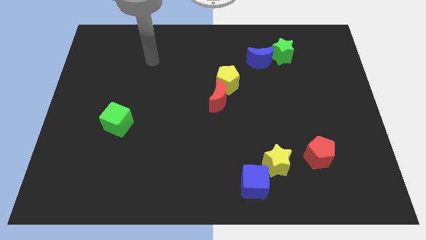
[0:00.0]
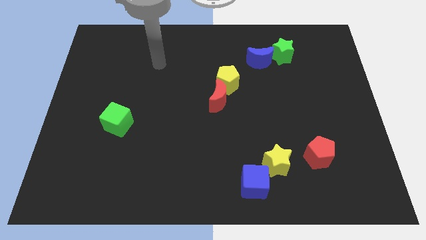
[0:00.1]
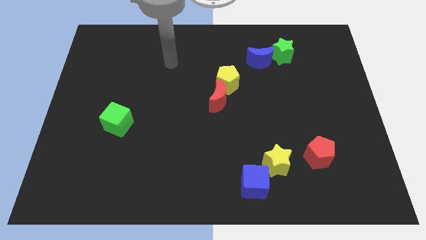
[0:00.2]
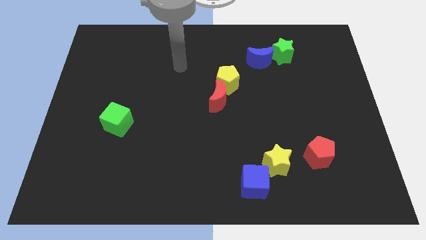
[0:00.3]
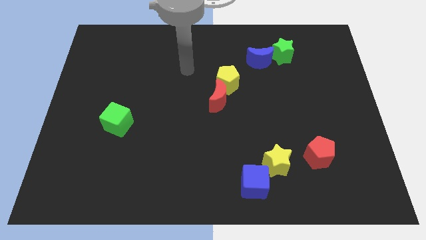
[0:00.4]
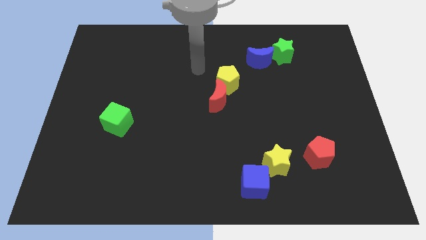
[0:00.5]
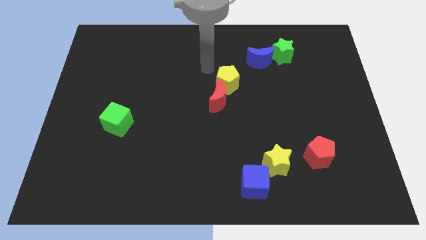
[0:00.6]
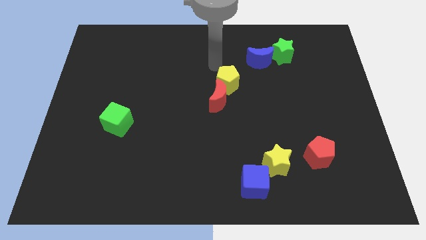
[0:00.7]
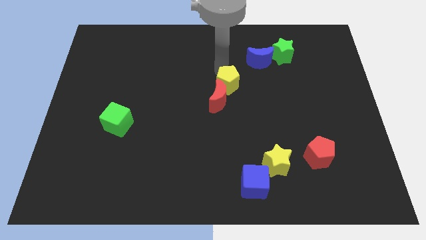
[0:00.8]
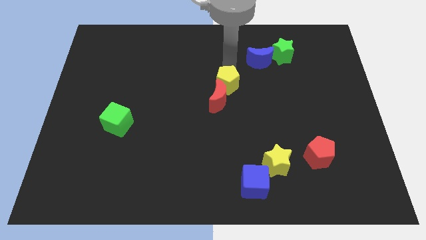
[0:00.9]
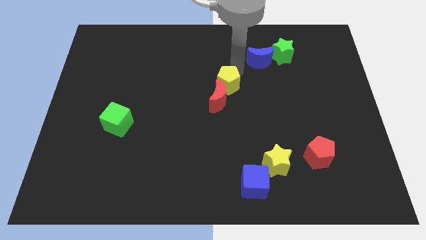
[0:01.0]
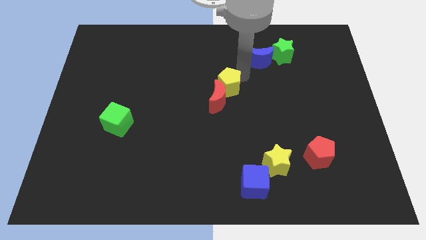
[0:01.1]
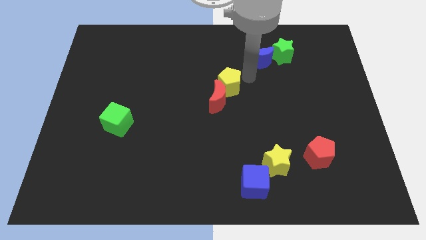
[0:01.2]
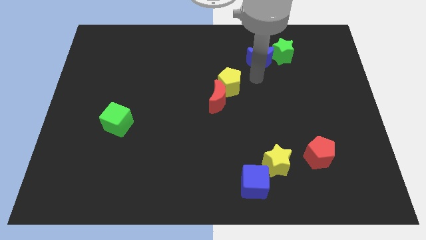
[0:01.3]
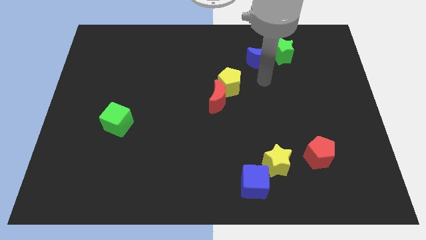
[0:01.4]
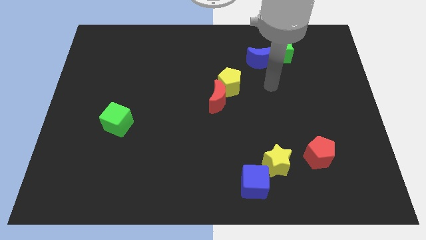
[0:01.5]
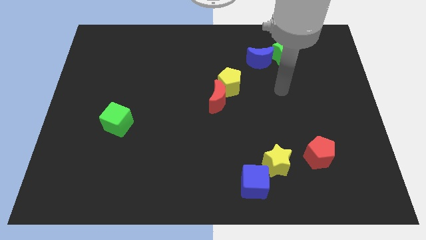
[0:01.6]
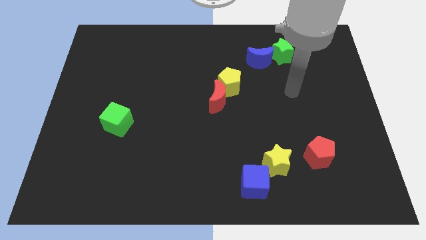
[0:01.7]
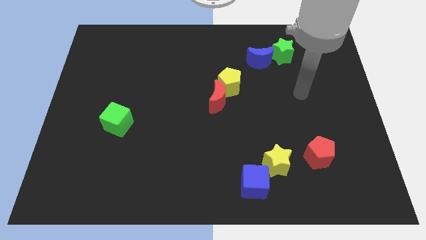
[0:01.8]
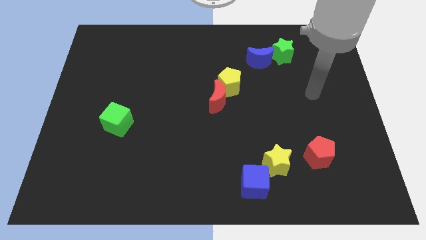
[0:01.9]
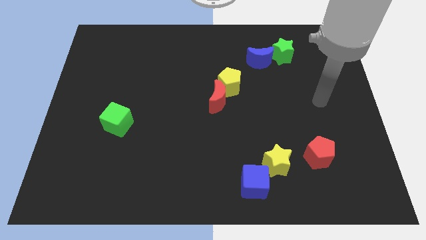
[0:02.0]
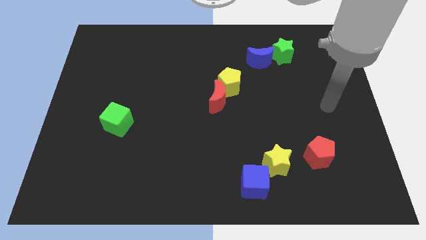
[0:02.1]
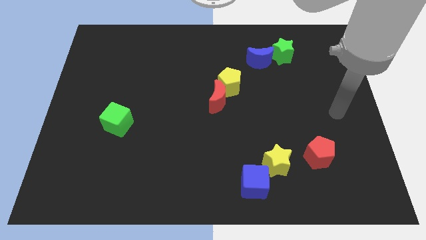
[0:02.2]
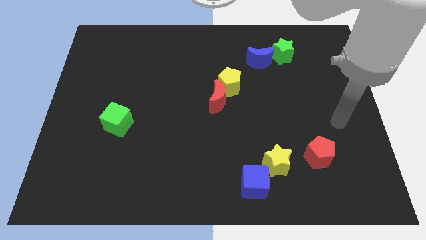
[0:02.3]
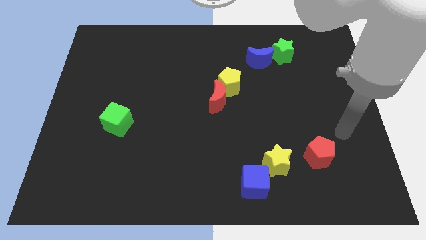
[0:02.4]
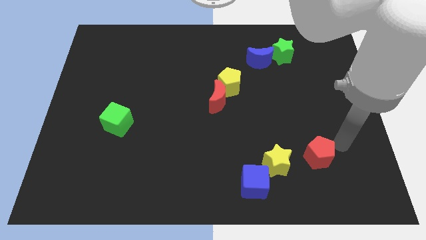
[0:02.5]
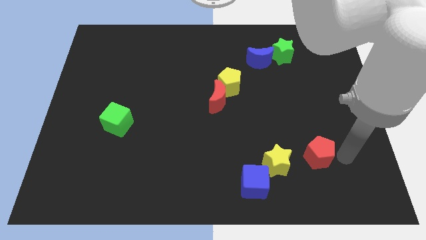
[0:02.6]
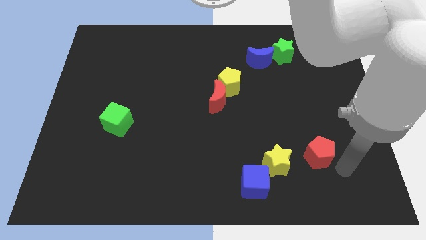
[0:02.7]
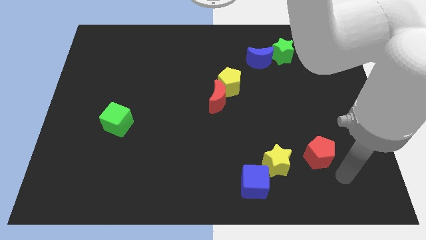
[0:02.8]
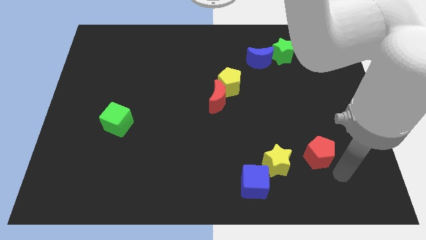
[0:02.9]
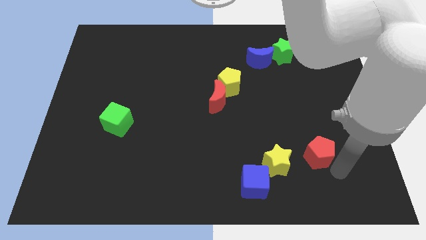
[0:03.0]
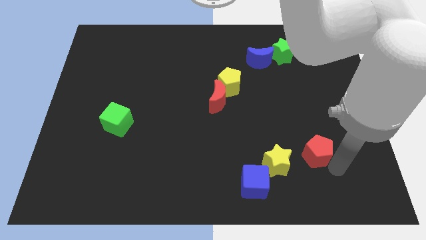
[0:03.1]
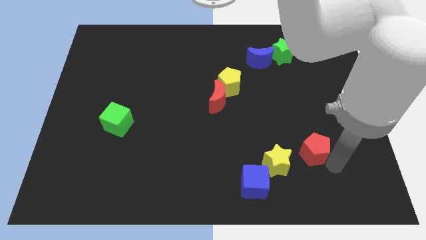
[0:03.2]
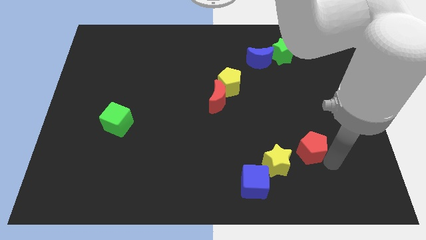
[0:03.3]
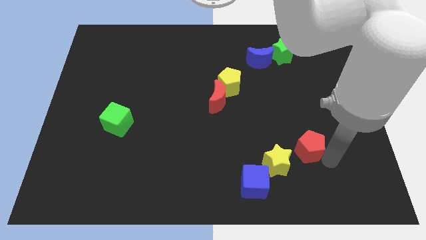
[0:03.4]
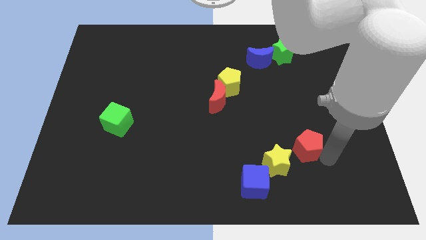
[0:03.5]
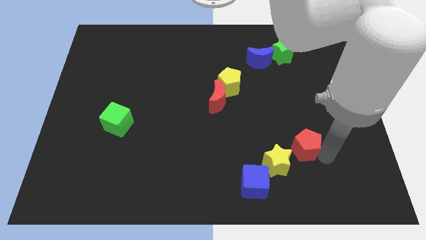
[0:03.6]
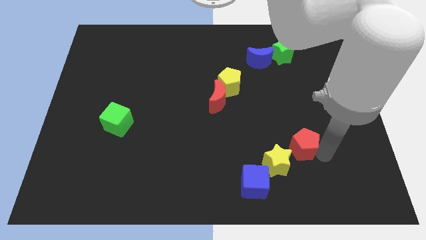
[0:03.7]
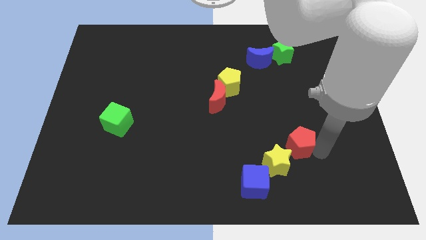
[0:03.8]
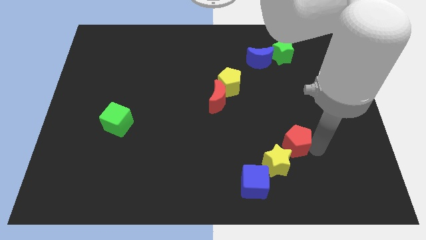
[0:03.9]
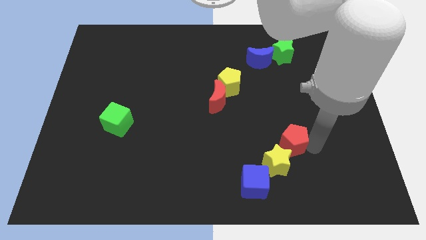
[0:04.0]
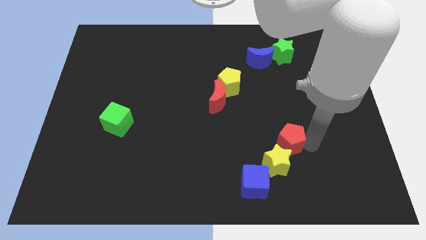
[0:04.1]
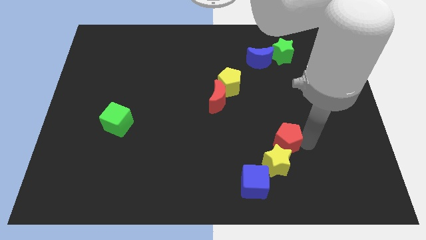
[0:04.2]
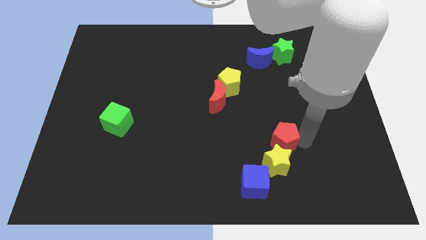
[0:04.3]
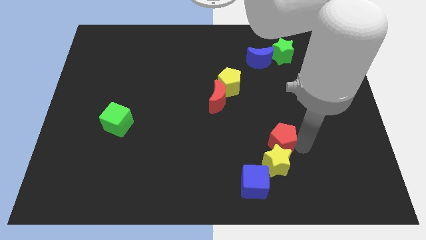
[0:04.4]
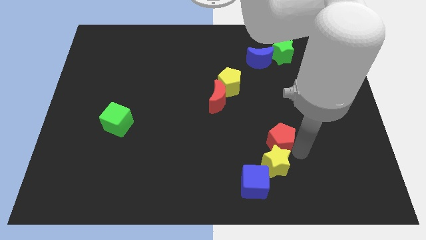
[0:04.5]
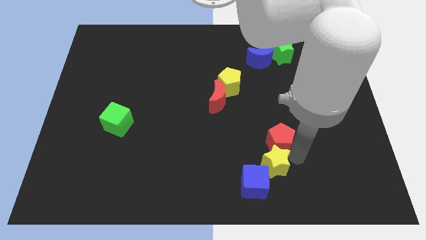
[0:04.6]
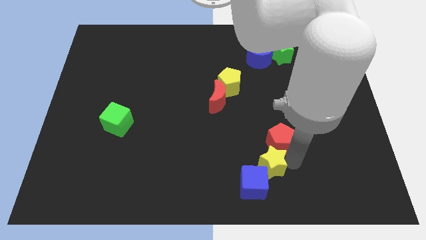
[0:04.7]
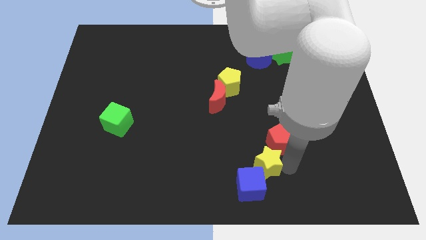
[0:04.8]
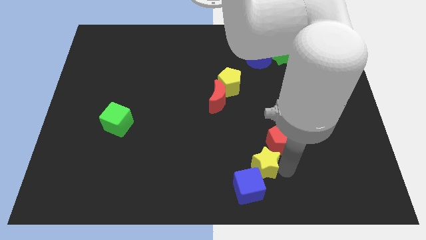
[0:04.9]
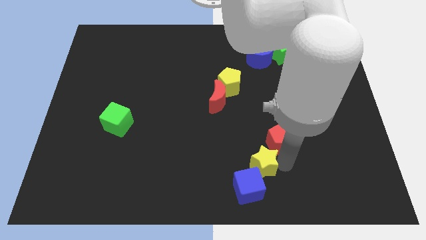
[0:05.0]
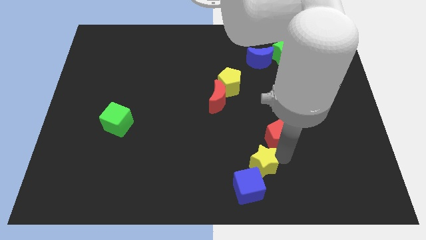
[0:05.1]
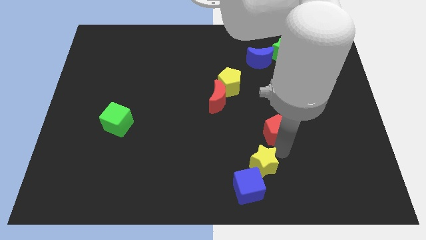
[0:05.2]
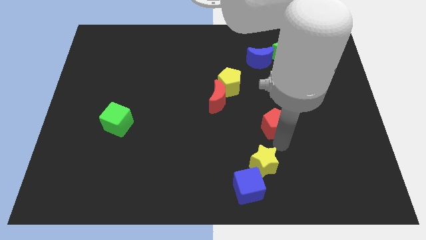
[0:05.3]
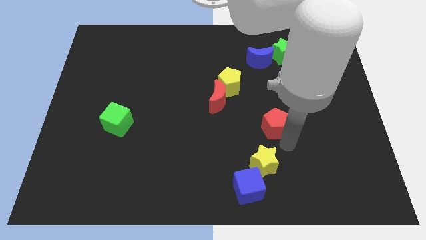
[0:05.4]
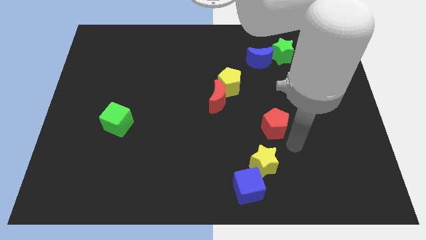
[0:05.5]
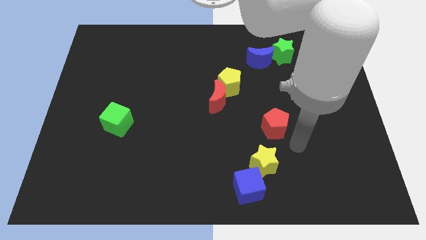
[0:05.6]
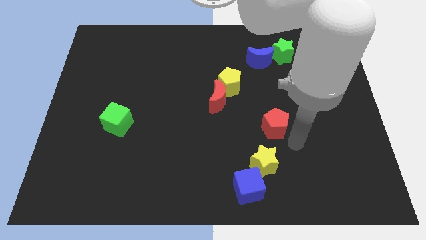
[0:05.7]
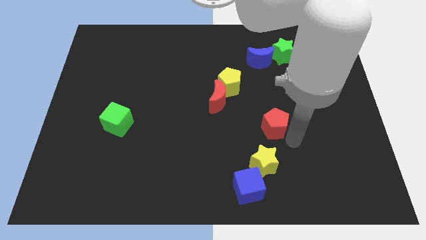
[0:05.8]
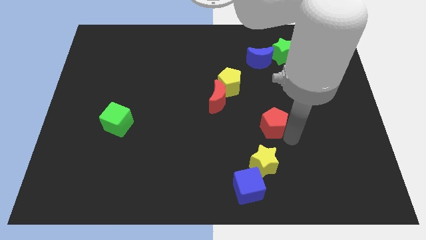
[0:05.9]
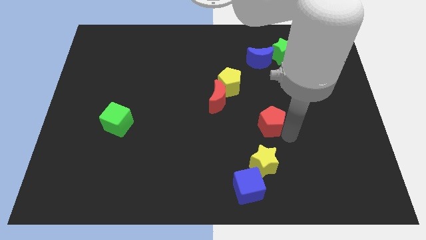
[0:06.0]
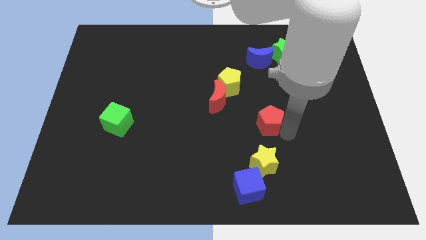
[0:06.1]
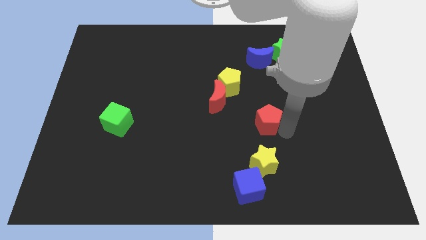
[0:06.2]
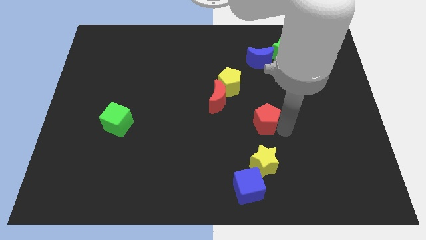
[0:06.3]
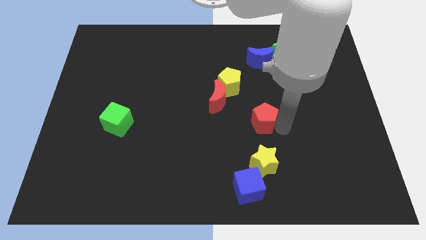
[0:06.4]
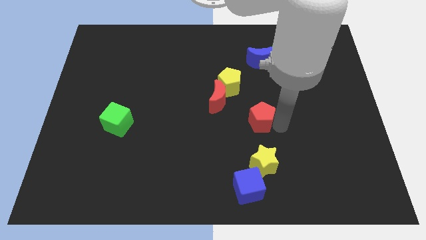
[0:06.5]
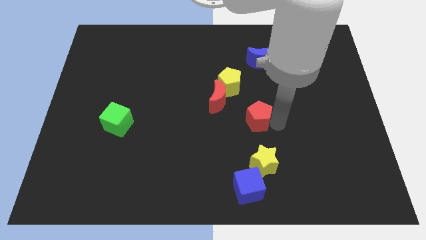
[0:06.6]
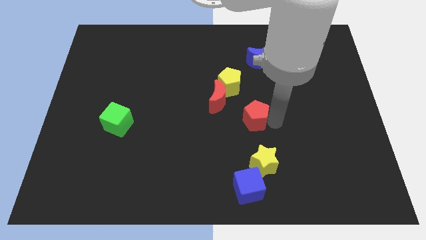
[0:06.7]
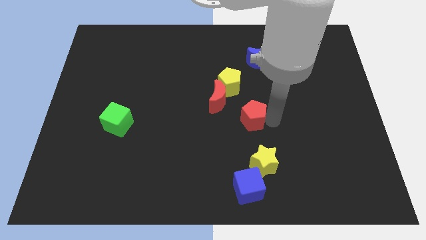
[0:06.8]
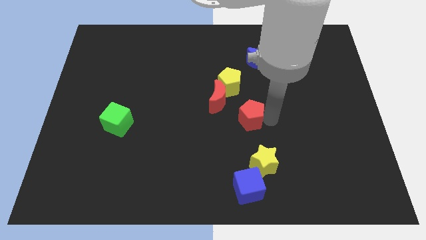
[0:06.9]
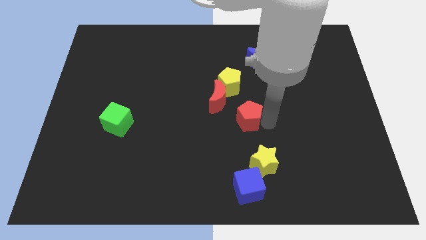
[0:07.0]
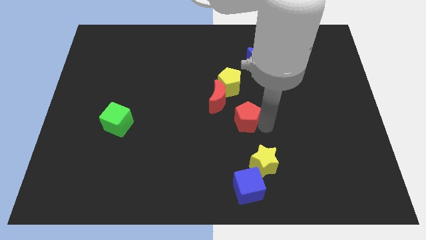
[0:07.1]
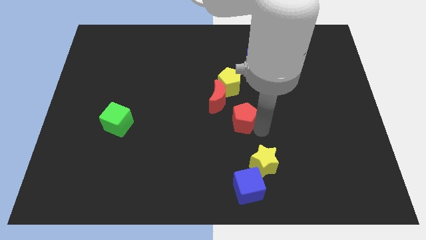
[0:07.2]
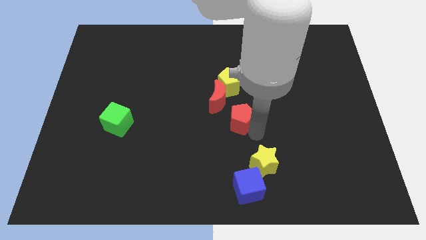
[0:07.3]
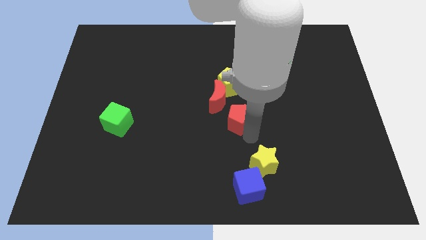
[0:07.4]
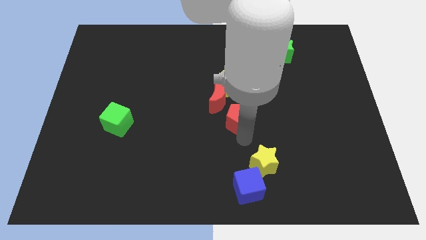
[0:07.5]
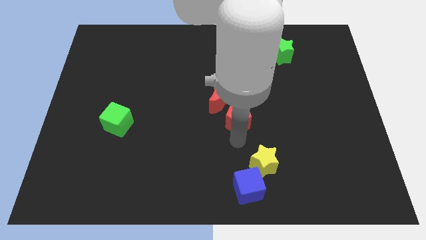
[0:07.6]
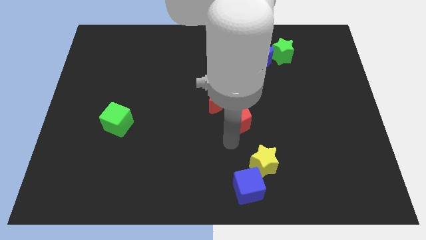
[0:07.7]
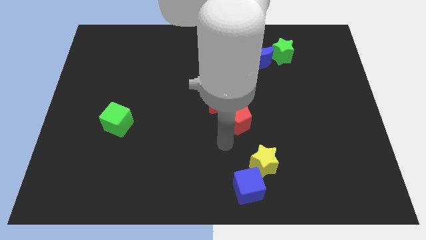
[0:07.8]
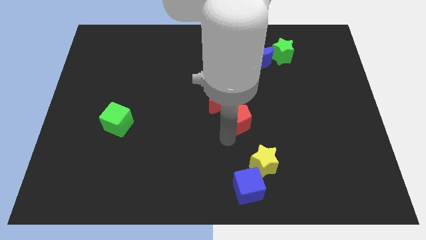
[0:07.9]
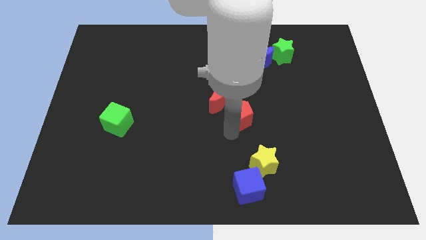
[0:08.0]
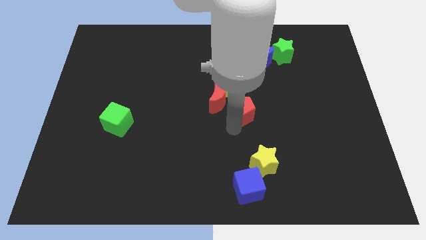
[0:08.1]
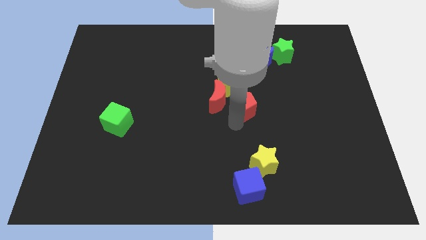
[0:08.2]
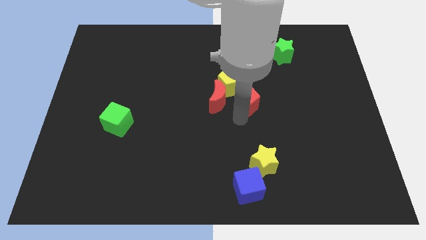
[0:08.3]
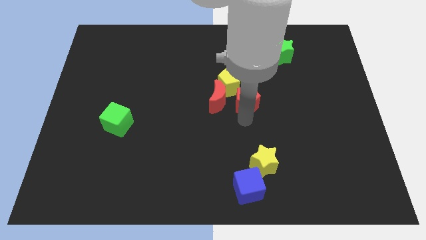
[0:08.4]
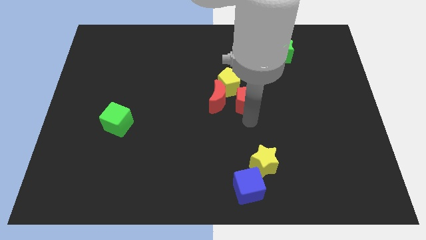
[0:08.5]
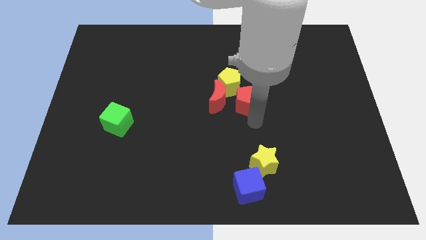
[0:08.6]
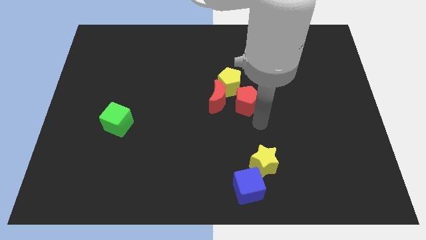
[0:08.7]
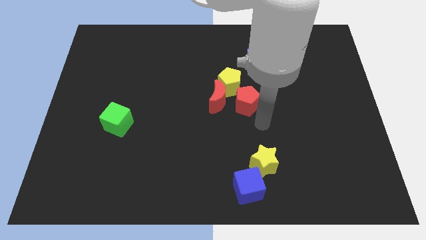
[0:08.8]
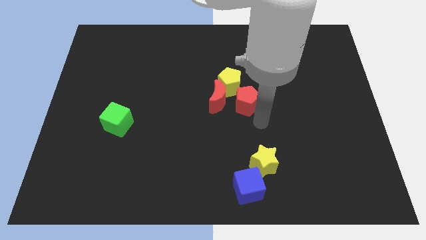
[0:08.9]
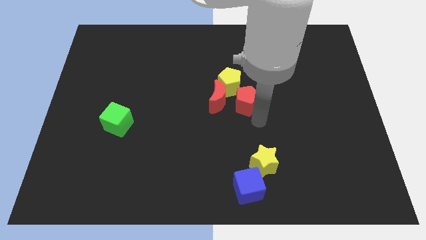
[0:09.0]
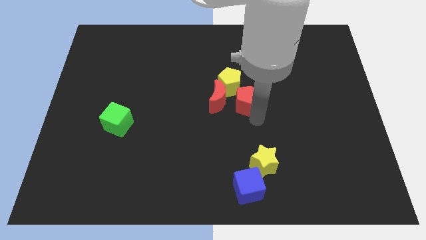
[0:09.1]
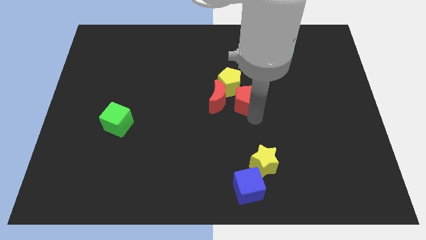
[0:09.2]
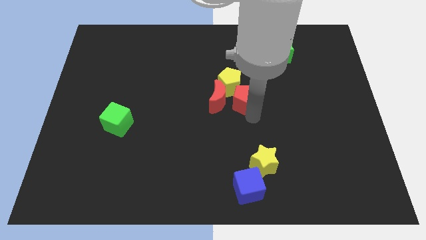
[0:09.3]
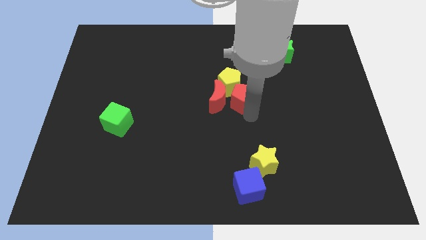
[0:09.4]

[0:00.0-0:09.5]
push the red pentagon next to the yellow pentagon
